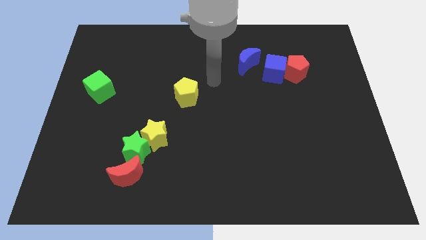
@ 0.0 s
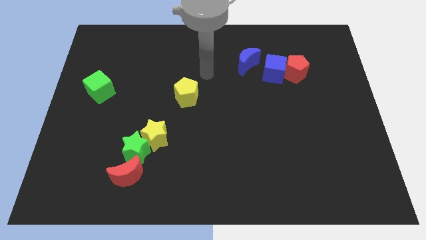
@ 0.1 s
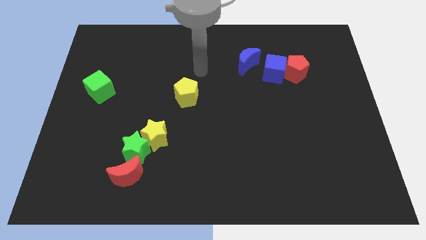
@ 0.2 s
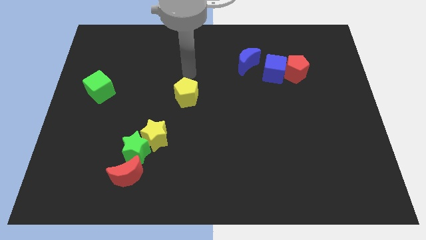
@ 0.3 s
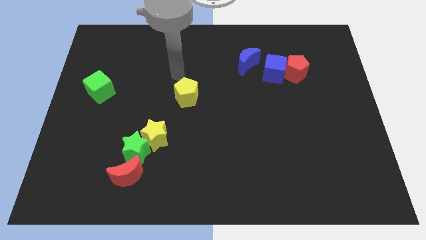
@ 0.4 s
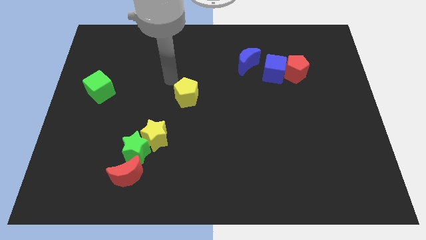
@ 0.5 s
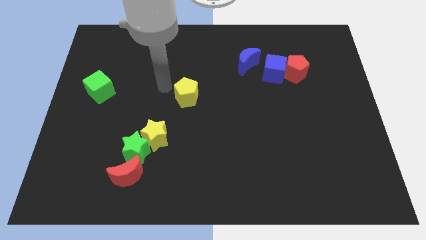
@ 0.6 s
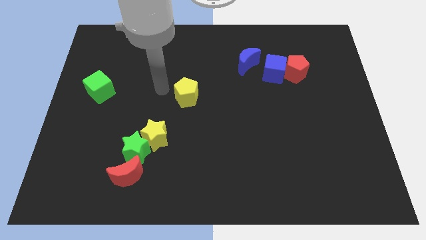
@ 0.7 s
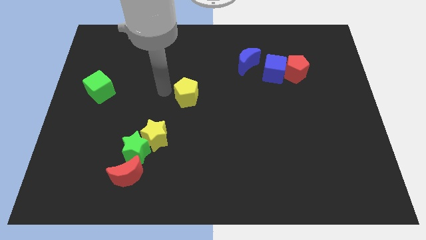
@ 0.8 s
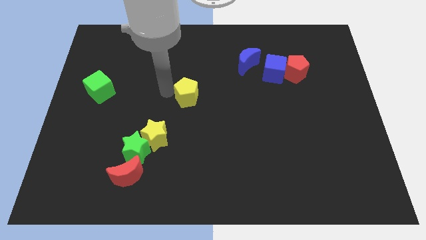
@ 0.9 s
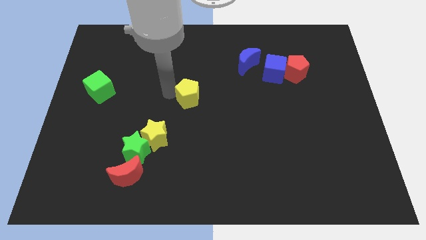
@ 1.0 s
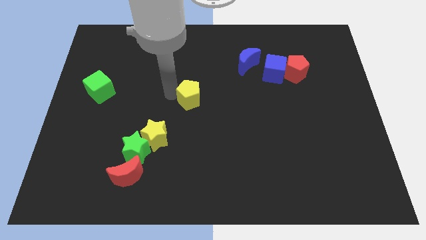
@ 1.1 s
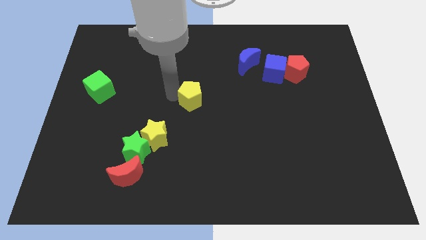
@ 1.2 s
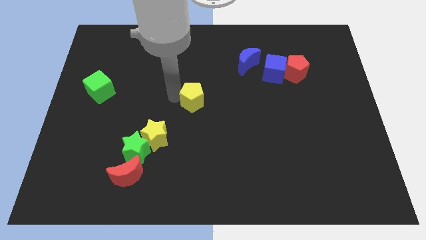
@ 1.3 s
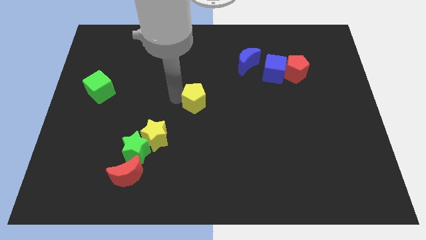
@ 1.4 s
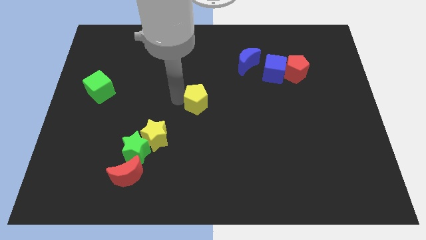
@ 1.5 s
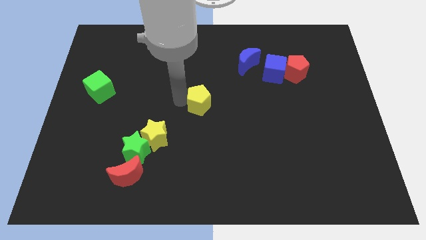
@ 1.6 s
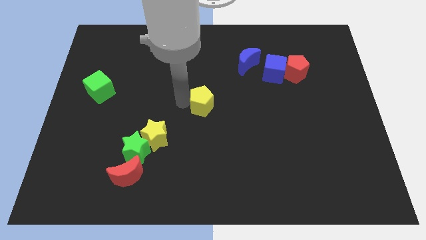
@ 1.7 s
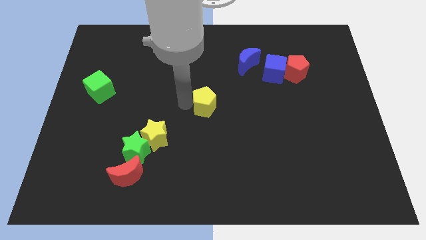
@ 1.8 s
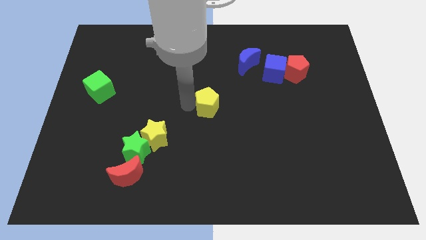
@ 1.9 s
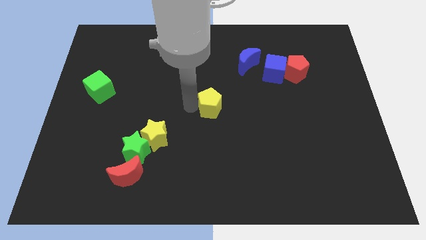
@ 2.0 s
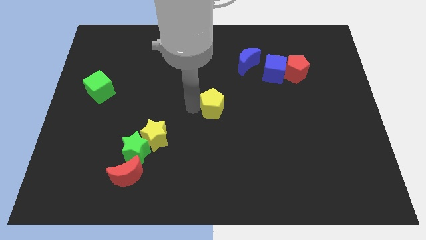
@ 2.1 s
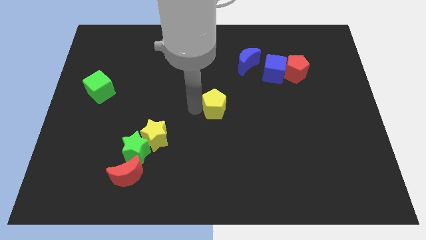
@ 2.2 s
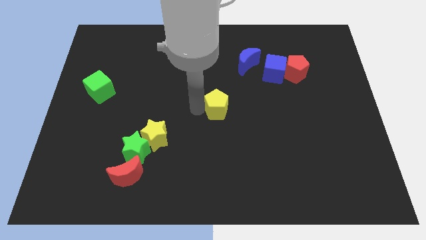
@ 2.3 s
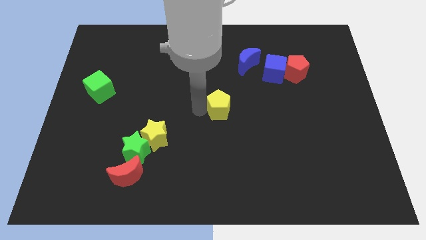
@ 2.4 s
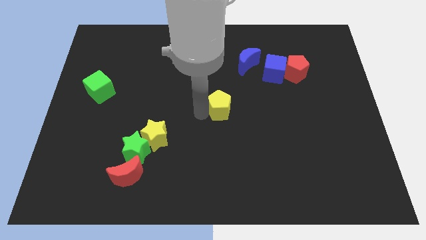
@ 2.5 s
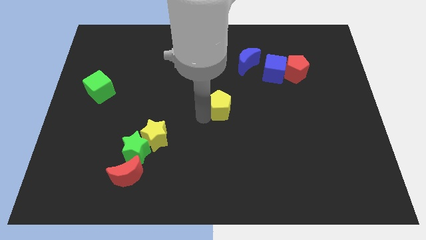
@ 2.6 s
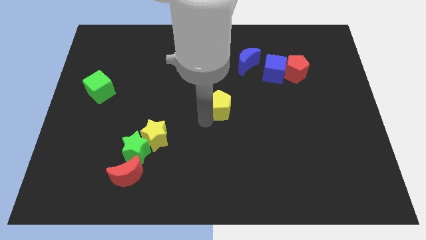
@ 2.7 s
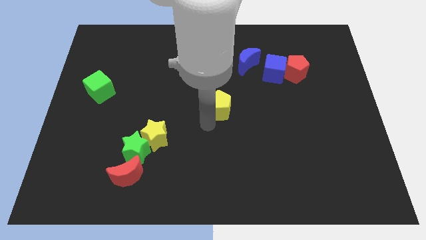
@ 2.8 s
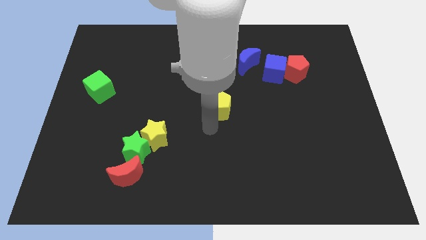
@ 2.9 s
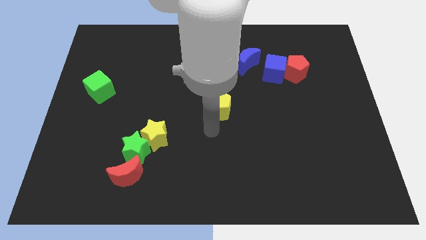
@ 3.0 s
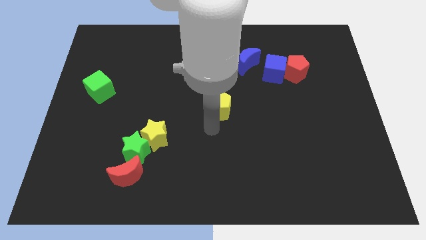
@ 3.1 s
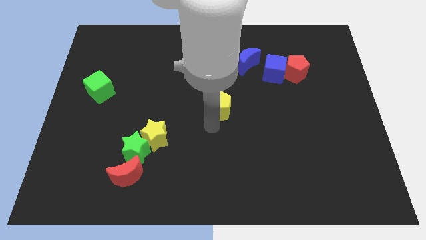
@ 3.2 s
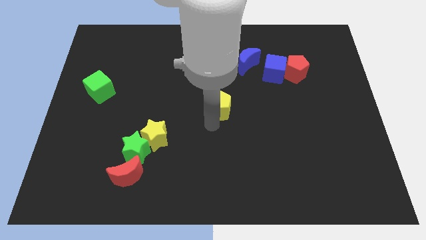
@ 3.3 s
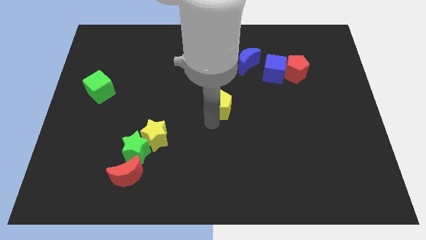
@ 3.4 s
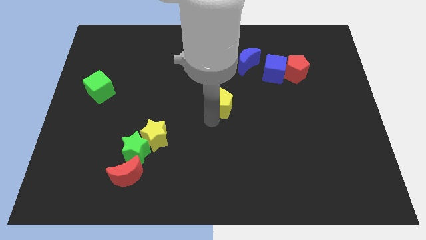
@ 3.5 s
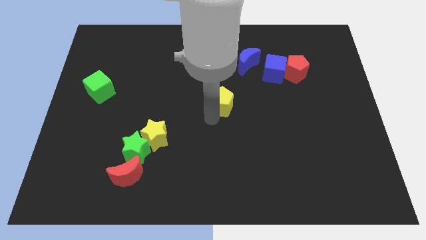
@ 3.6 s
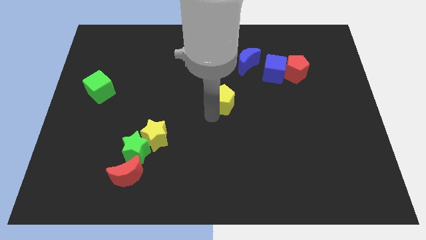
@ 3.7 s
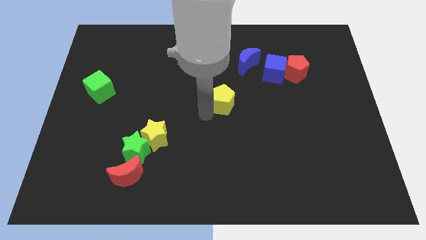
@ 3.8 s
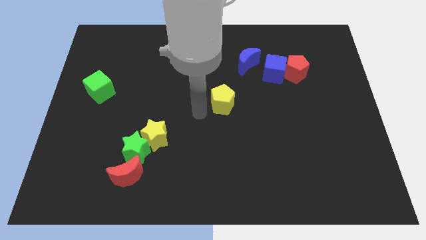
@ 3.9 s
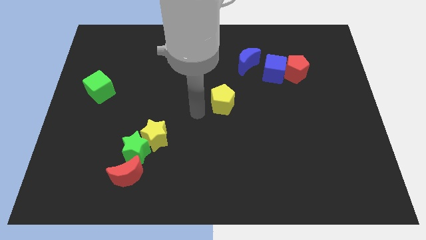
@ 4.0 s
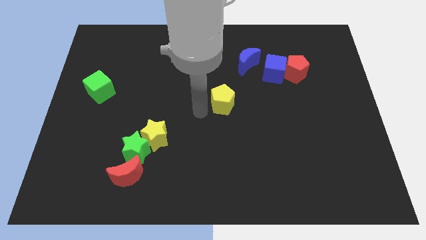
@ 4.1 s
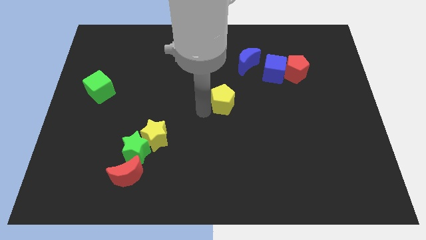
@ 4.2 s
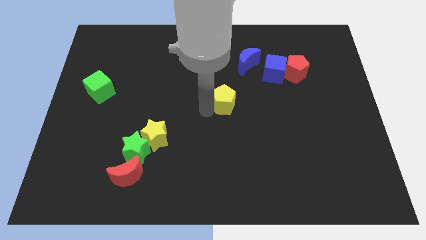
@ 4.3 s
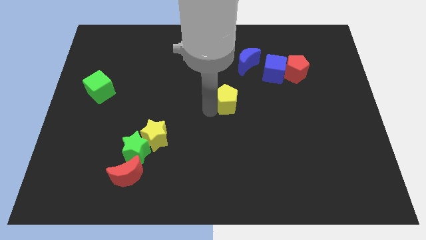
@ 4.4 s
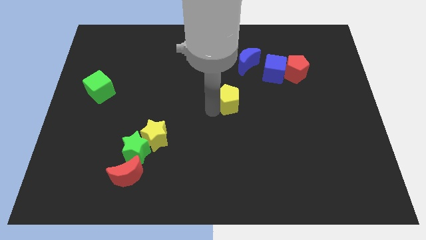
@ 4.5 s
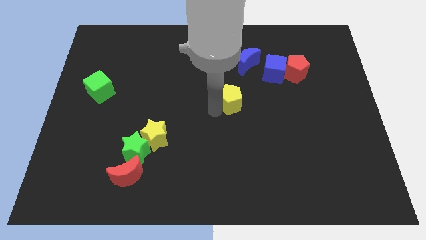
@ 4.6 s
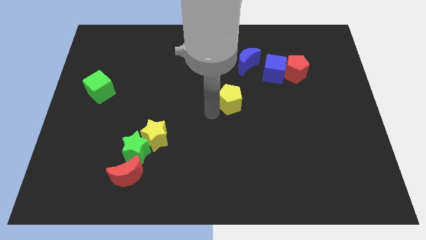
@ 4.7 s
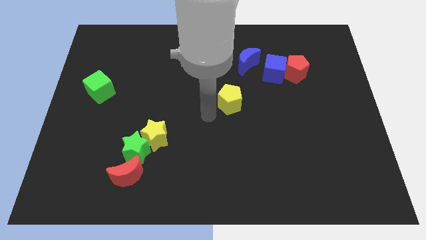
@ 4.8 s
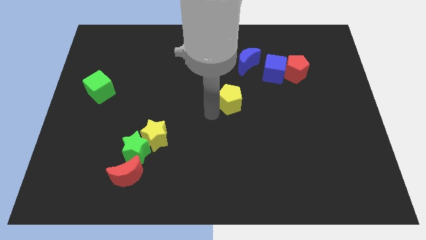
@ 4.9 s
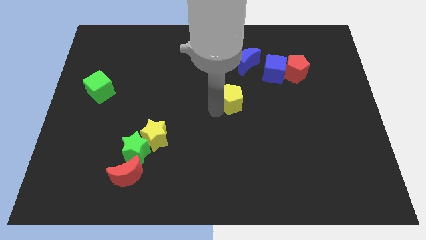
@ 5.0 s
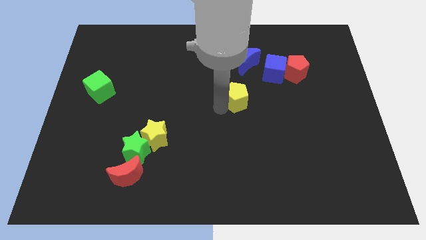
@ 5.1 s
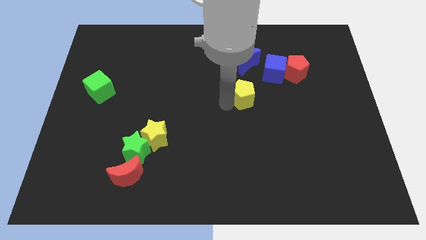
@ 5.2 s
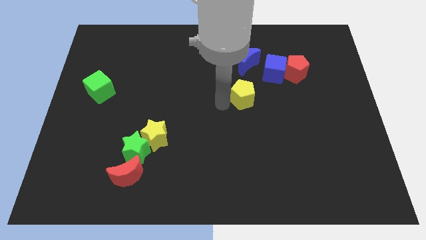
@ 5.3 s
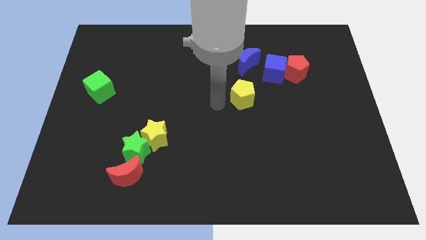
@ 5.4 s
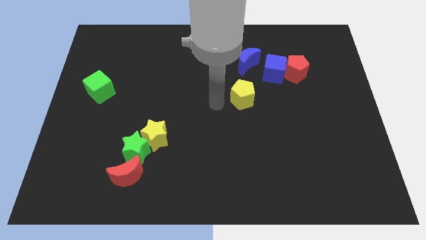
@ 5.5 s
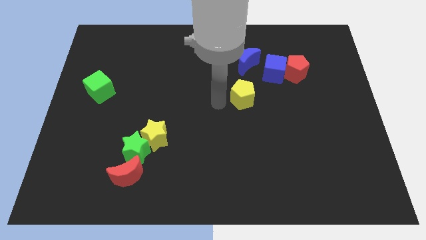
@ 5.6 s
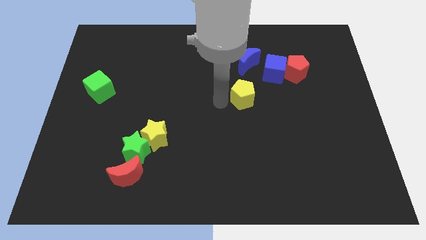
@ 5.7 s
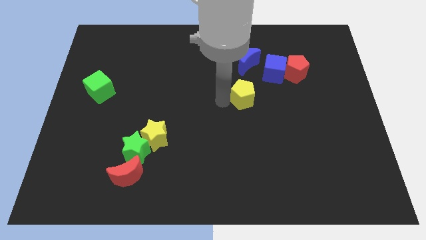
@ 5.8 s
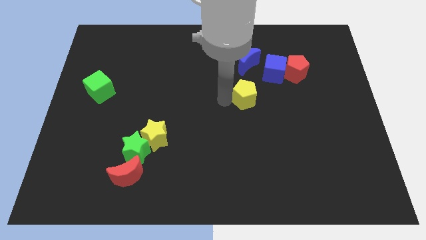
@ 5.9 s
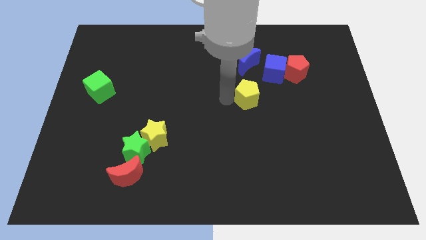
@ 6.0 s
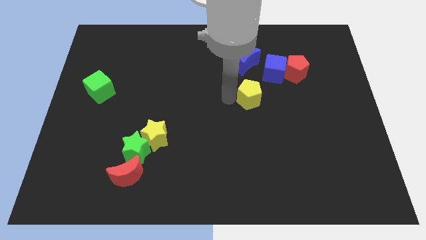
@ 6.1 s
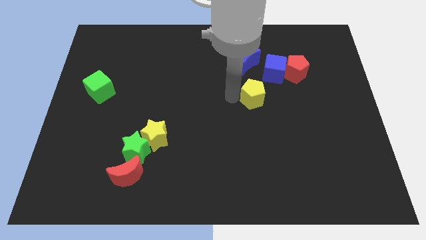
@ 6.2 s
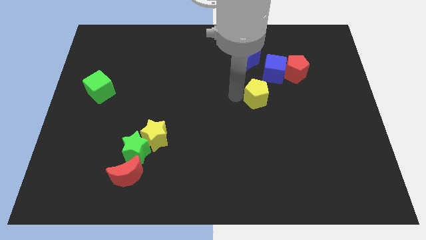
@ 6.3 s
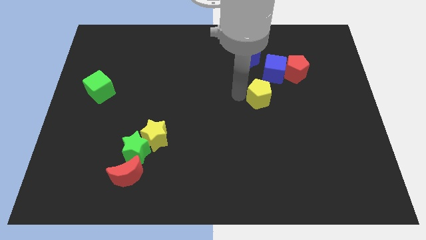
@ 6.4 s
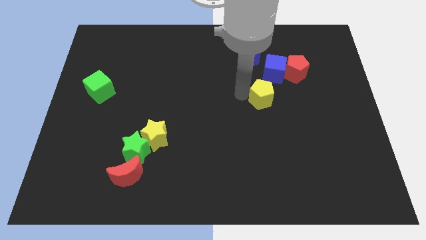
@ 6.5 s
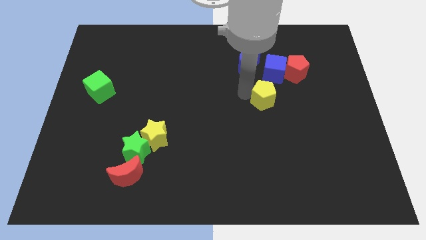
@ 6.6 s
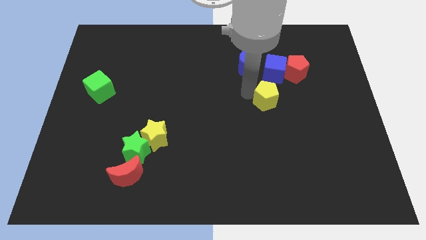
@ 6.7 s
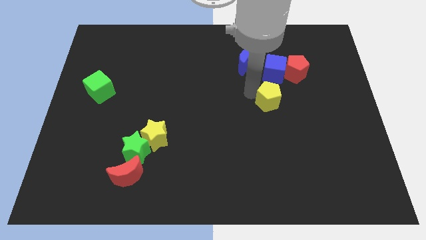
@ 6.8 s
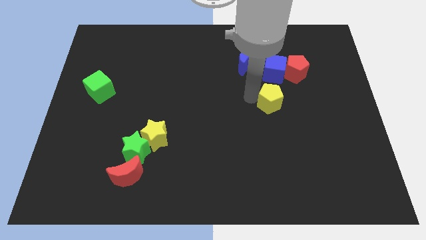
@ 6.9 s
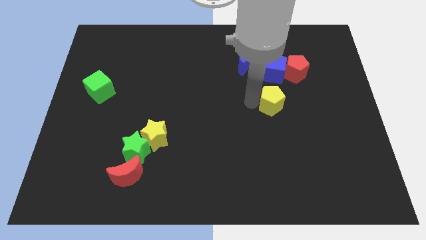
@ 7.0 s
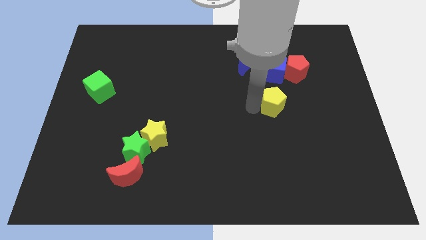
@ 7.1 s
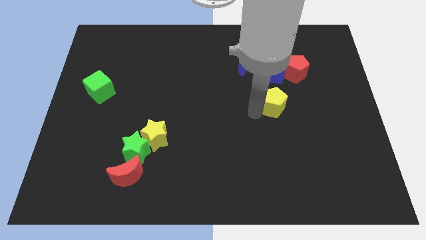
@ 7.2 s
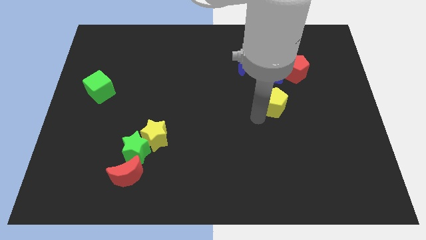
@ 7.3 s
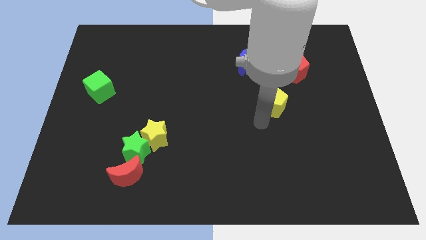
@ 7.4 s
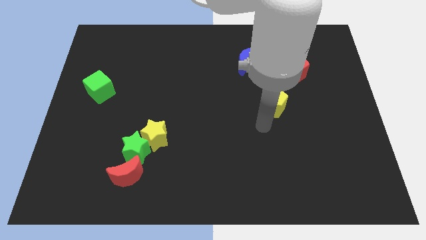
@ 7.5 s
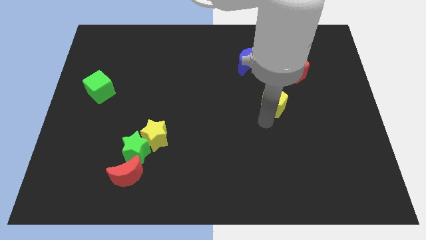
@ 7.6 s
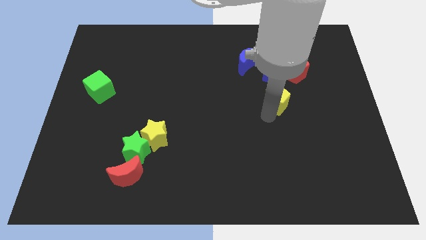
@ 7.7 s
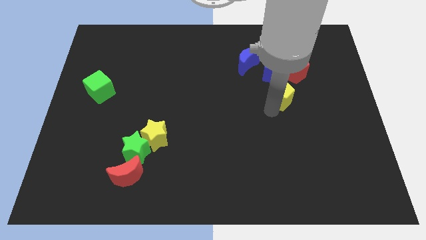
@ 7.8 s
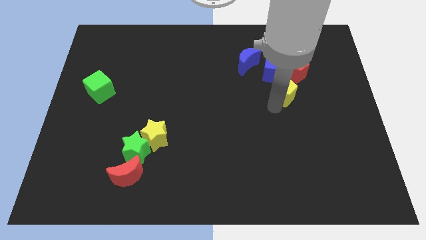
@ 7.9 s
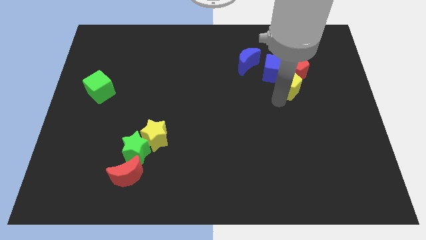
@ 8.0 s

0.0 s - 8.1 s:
put the yellow pentagon next to the red pentagon
